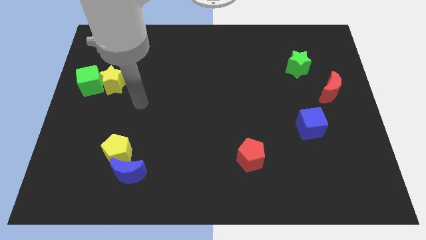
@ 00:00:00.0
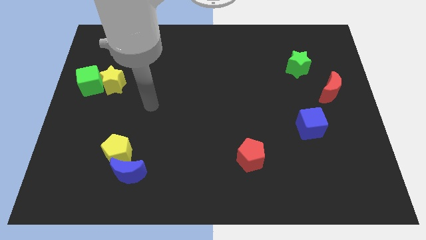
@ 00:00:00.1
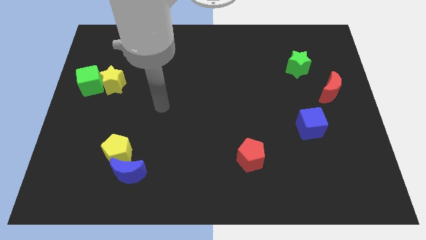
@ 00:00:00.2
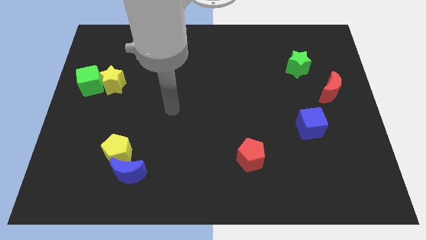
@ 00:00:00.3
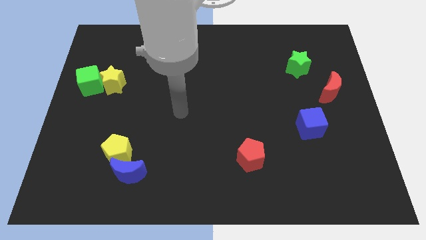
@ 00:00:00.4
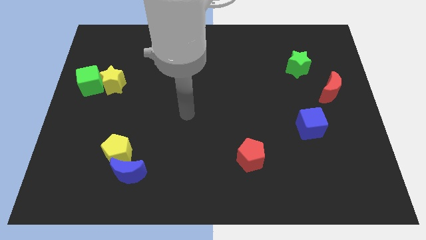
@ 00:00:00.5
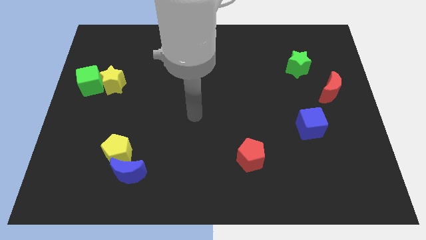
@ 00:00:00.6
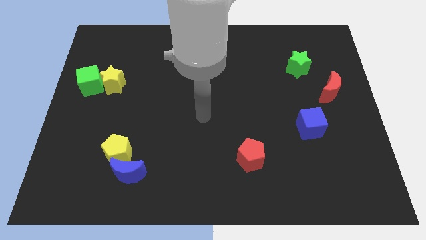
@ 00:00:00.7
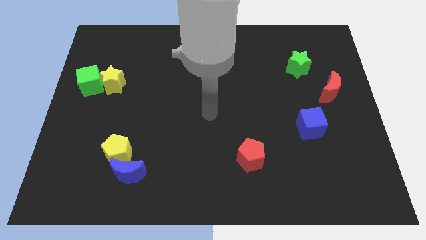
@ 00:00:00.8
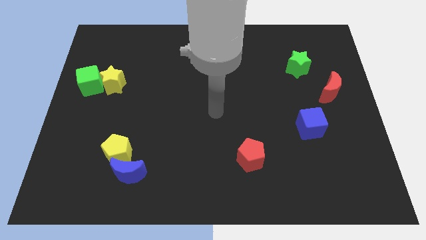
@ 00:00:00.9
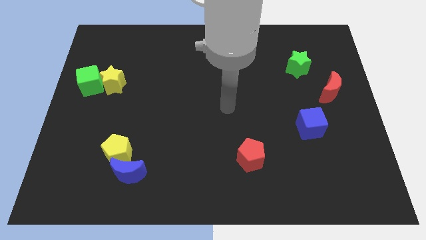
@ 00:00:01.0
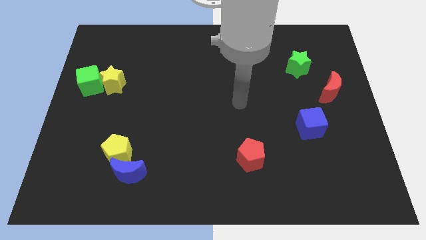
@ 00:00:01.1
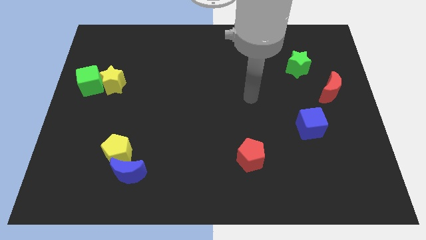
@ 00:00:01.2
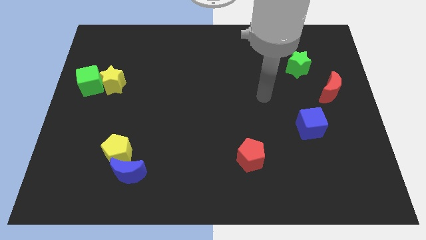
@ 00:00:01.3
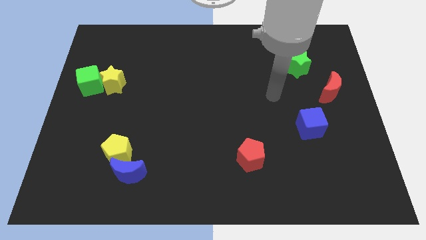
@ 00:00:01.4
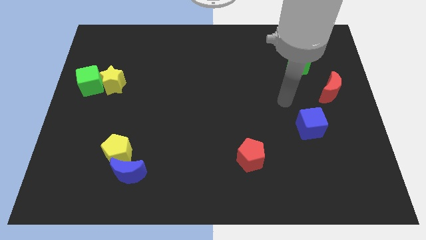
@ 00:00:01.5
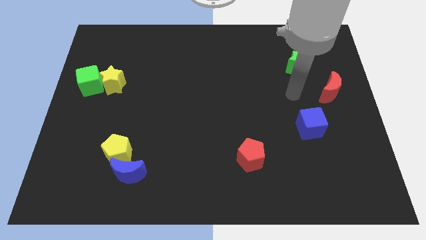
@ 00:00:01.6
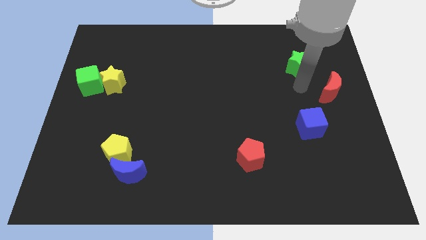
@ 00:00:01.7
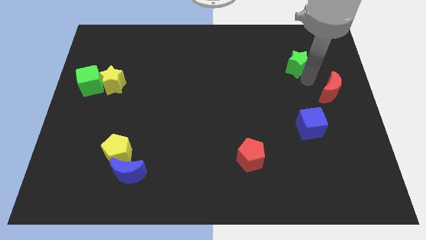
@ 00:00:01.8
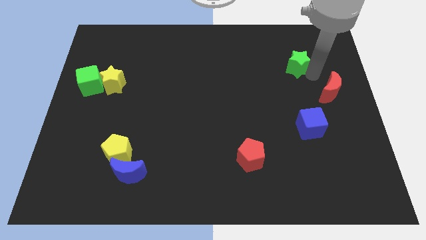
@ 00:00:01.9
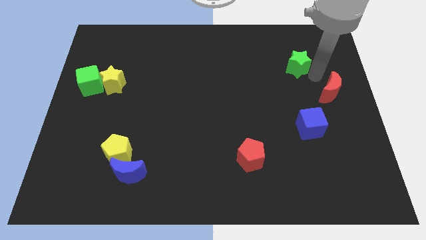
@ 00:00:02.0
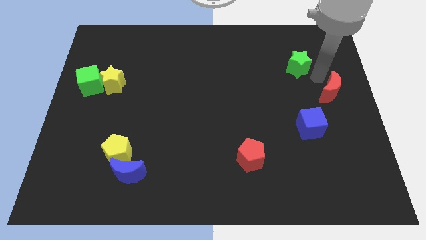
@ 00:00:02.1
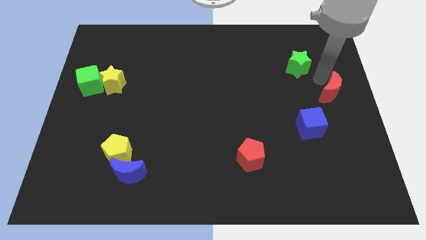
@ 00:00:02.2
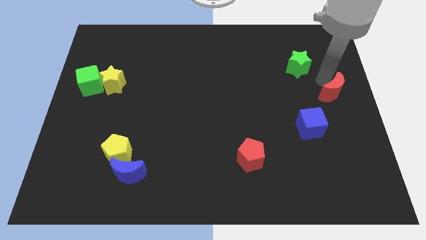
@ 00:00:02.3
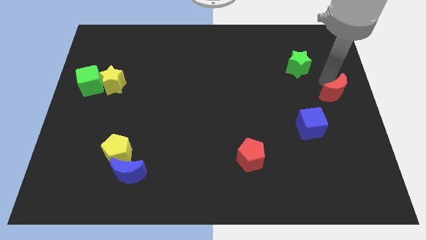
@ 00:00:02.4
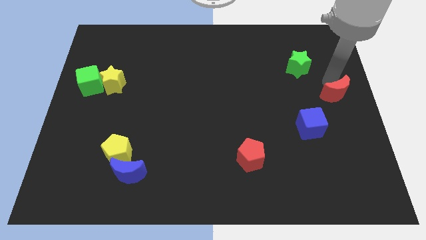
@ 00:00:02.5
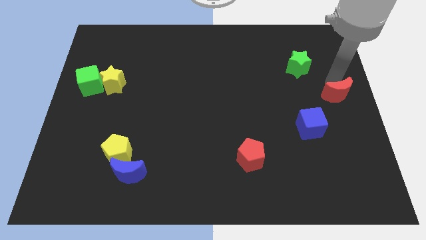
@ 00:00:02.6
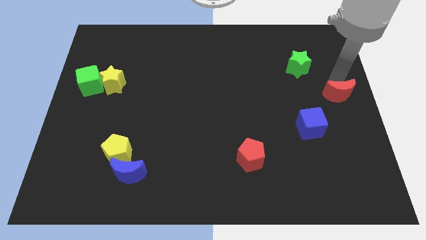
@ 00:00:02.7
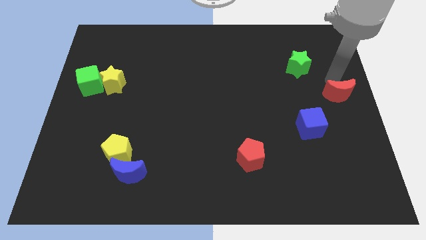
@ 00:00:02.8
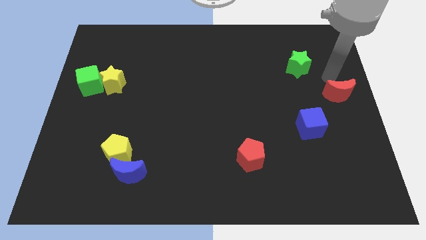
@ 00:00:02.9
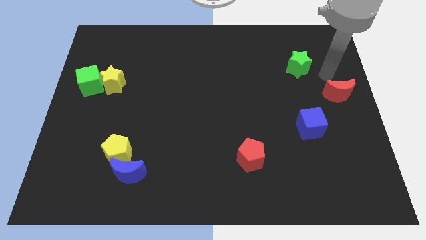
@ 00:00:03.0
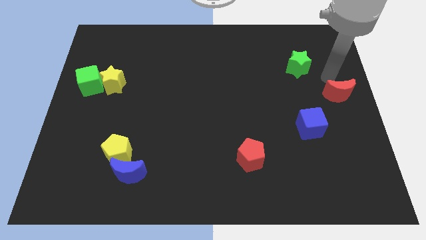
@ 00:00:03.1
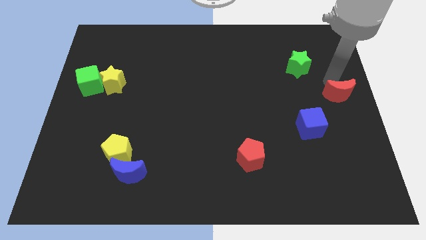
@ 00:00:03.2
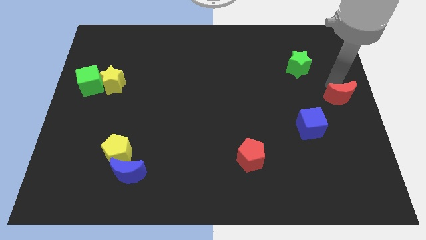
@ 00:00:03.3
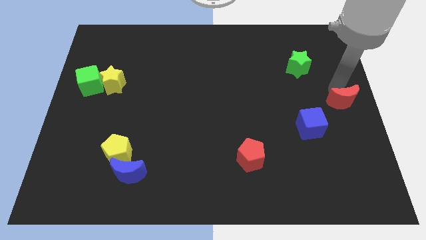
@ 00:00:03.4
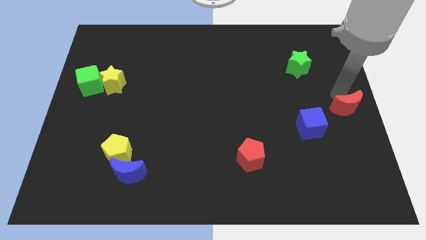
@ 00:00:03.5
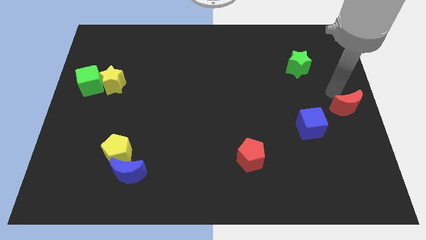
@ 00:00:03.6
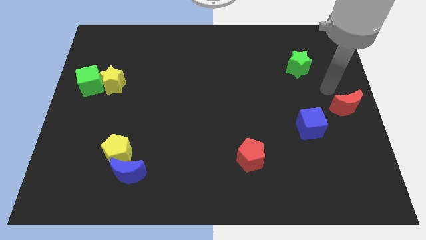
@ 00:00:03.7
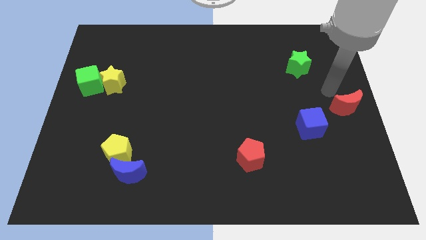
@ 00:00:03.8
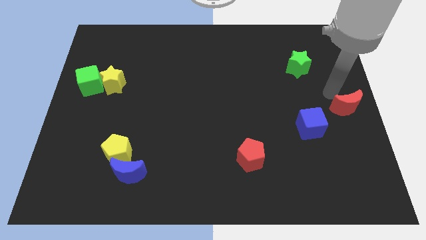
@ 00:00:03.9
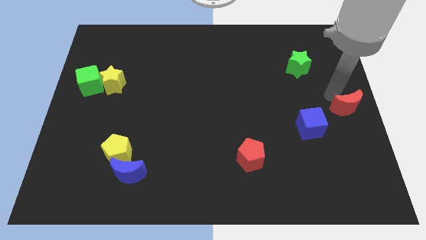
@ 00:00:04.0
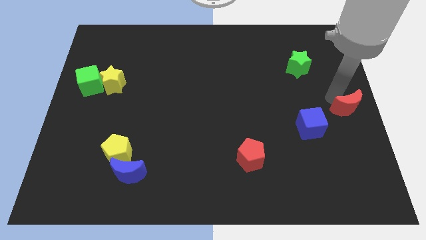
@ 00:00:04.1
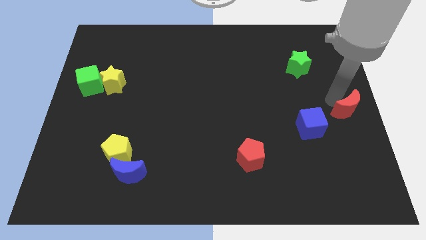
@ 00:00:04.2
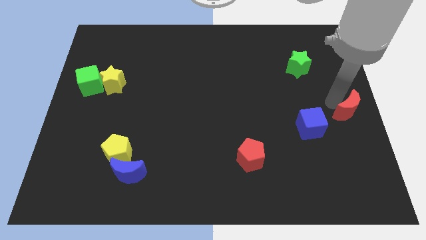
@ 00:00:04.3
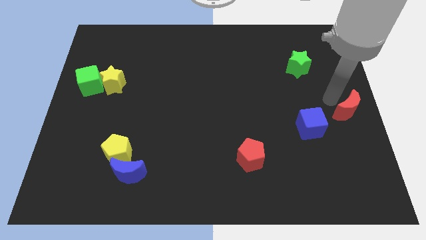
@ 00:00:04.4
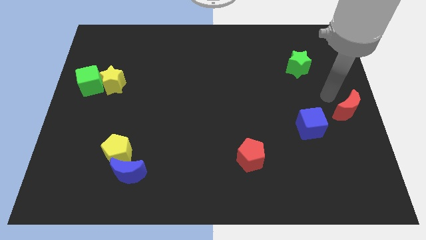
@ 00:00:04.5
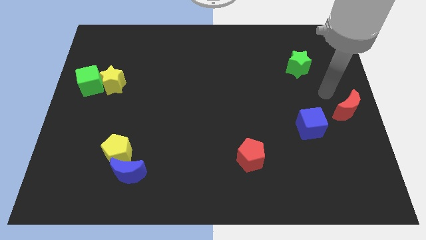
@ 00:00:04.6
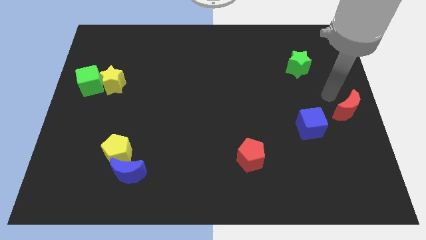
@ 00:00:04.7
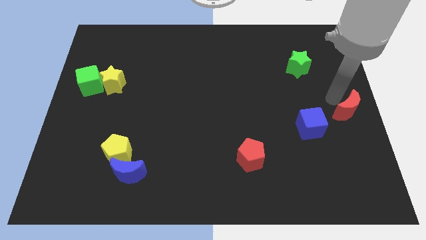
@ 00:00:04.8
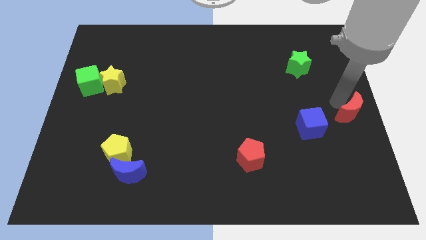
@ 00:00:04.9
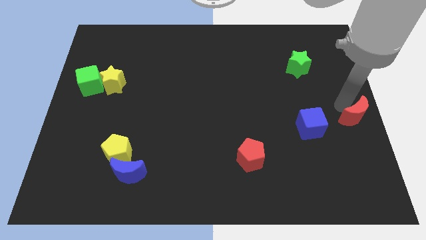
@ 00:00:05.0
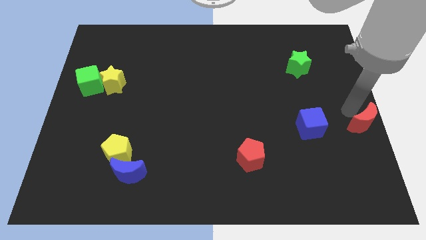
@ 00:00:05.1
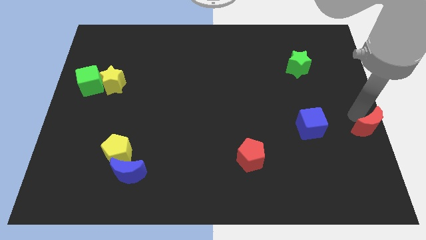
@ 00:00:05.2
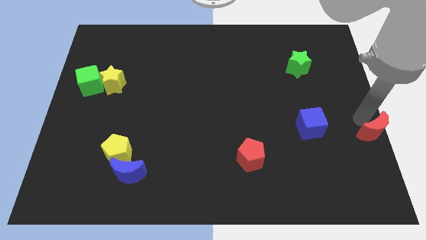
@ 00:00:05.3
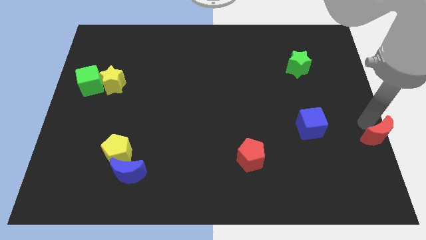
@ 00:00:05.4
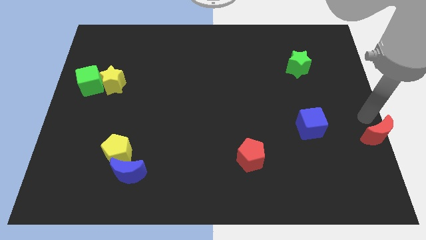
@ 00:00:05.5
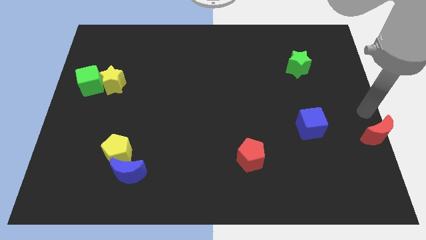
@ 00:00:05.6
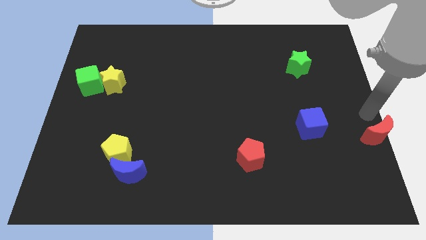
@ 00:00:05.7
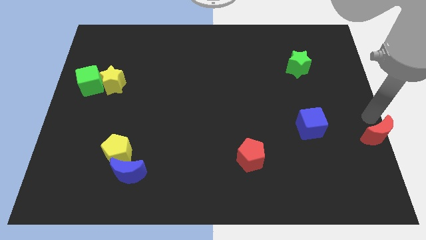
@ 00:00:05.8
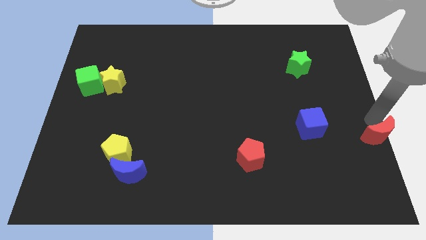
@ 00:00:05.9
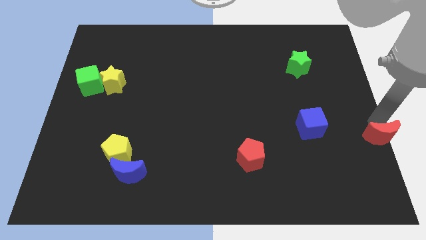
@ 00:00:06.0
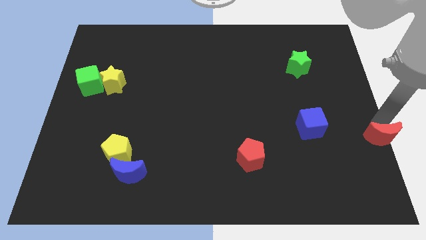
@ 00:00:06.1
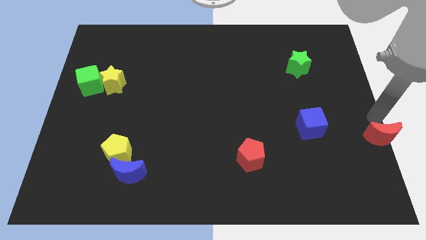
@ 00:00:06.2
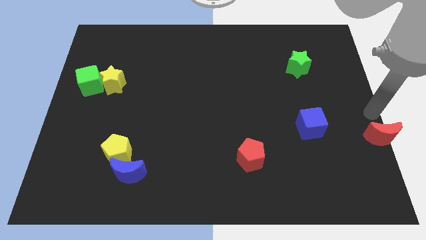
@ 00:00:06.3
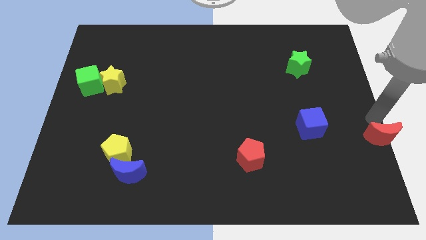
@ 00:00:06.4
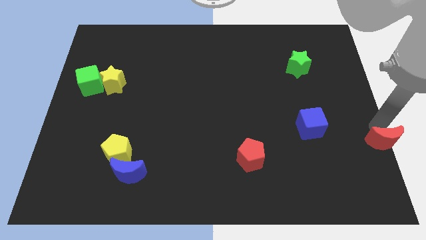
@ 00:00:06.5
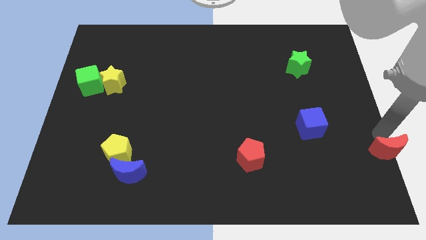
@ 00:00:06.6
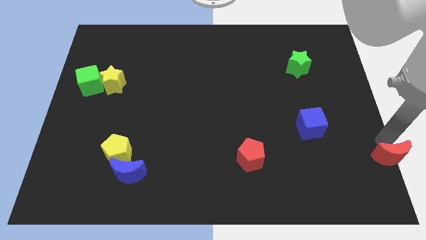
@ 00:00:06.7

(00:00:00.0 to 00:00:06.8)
slide the red moon to the bottom right
